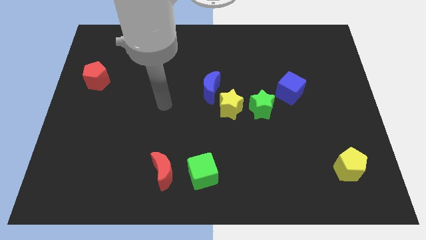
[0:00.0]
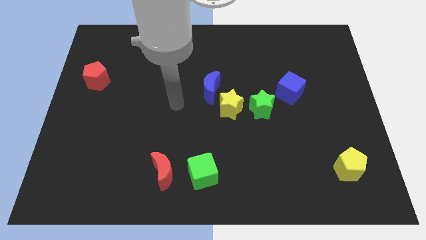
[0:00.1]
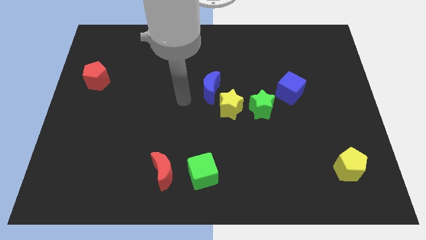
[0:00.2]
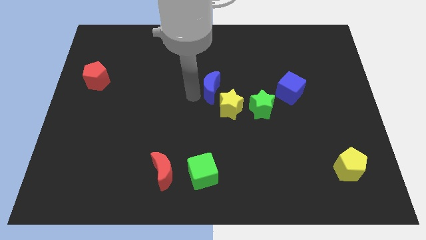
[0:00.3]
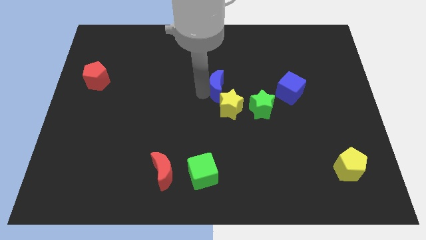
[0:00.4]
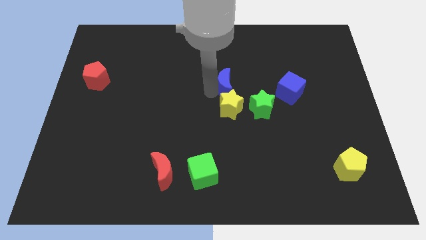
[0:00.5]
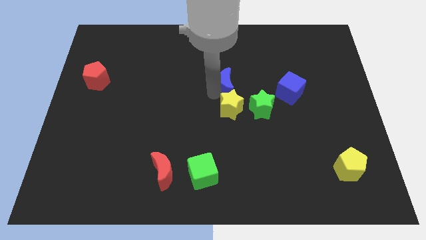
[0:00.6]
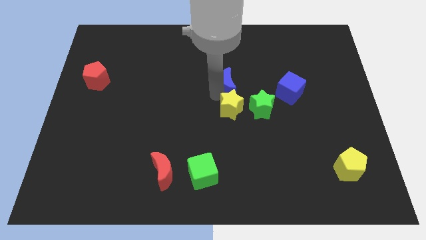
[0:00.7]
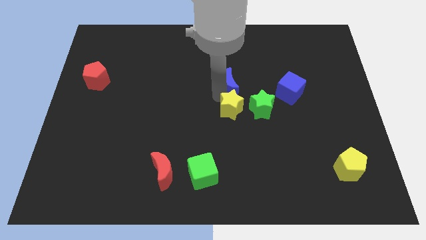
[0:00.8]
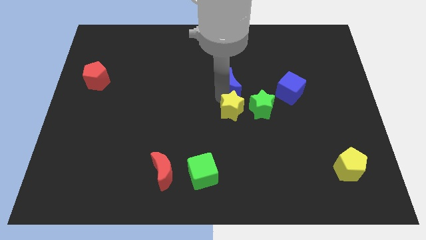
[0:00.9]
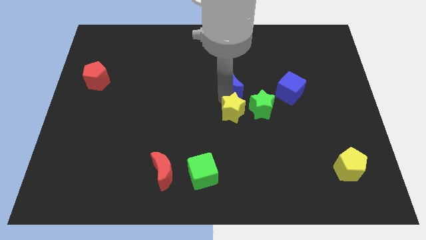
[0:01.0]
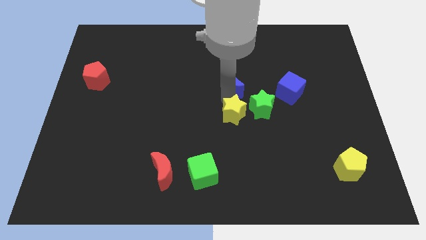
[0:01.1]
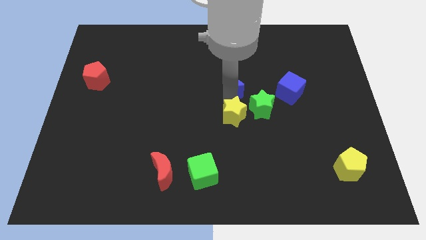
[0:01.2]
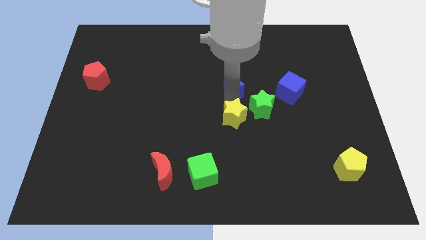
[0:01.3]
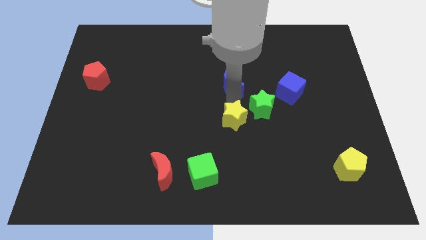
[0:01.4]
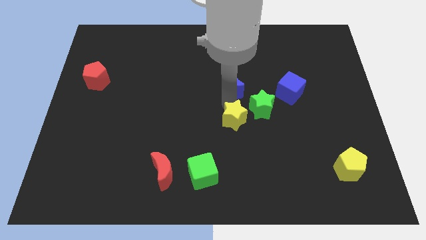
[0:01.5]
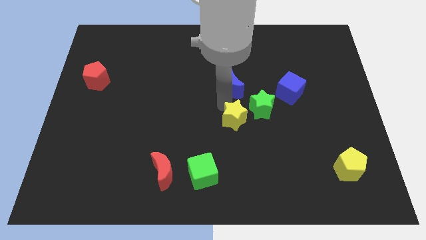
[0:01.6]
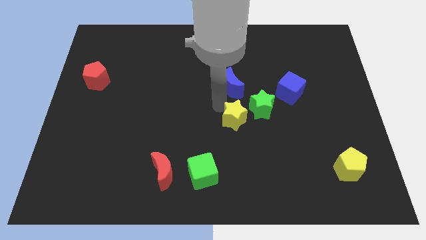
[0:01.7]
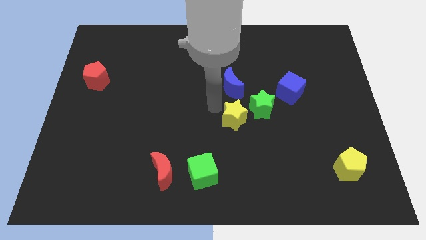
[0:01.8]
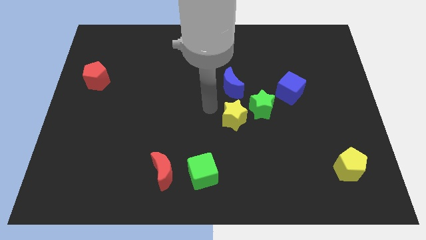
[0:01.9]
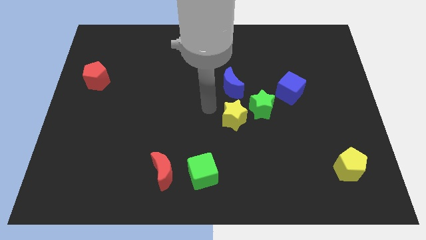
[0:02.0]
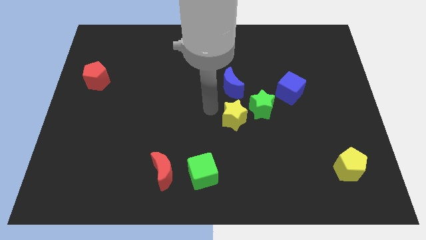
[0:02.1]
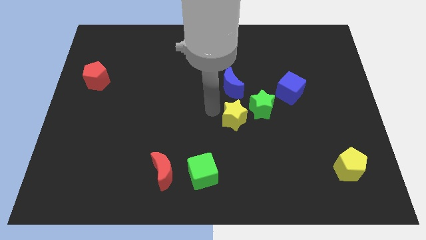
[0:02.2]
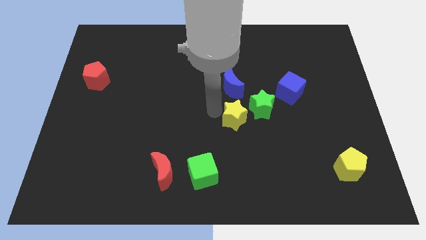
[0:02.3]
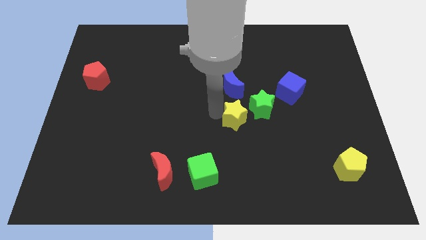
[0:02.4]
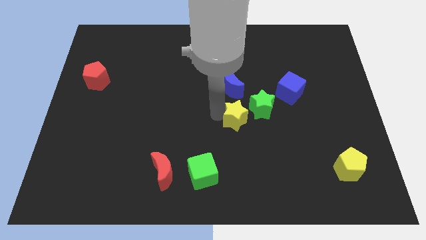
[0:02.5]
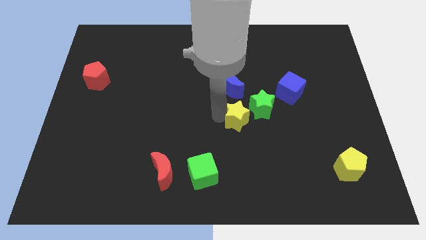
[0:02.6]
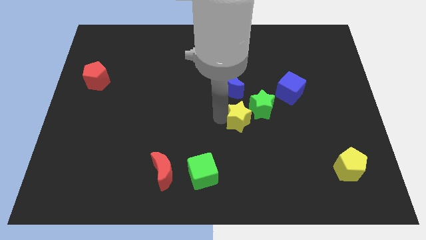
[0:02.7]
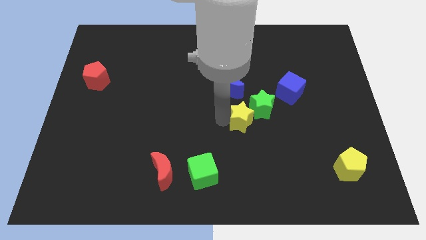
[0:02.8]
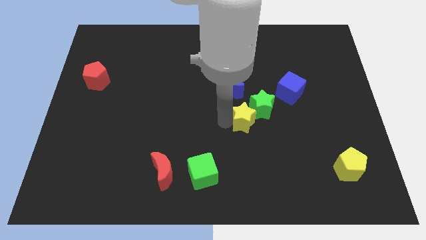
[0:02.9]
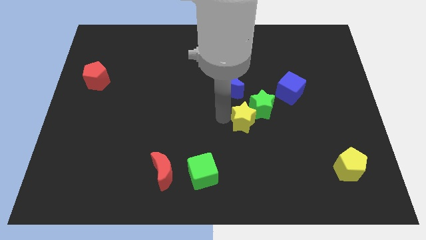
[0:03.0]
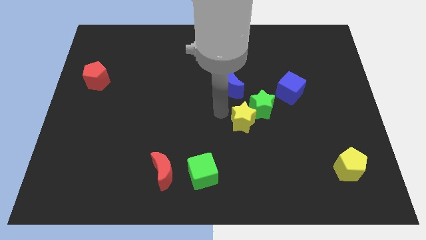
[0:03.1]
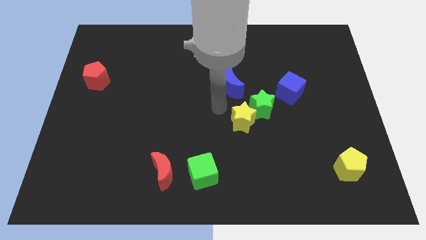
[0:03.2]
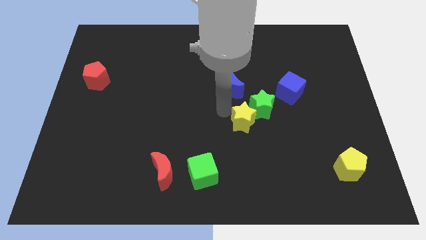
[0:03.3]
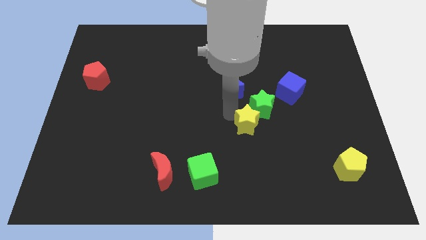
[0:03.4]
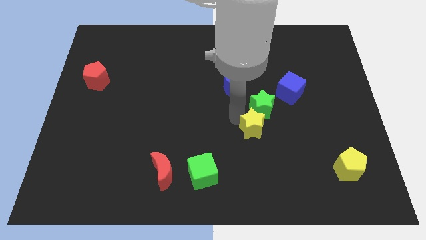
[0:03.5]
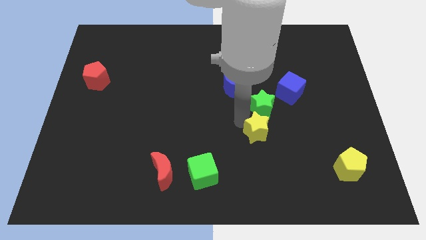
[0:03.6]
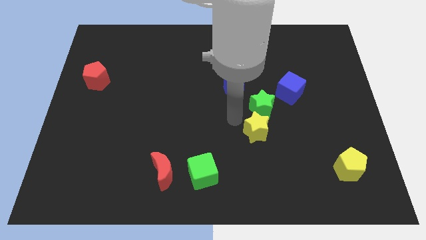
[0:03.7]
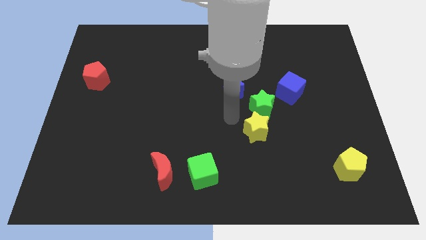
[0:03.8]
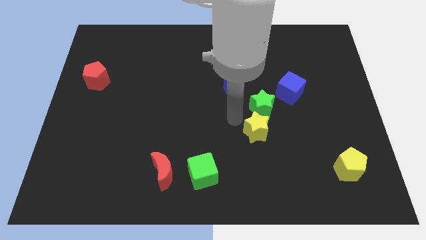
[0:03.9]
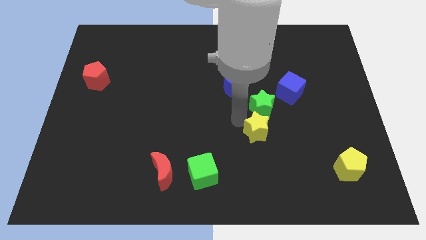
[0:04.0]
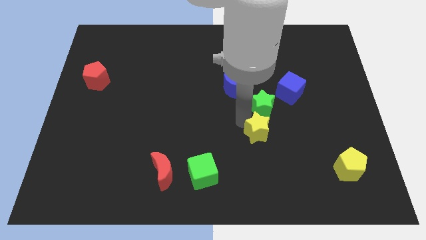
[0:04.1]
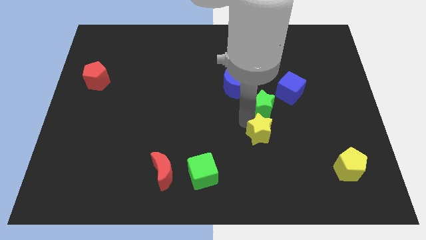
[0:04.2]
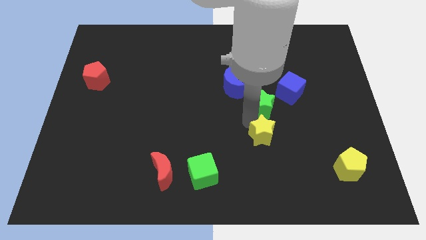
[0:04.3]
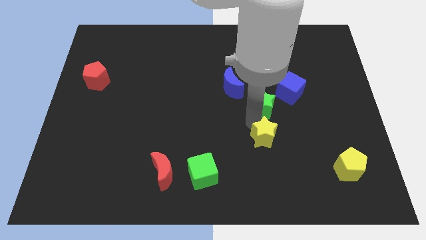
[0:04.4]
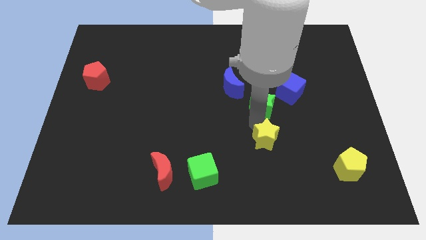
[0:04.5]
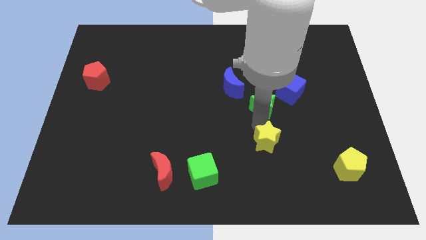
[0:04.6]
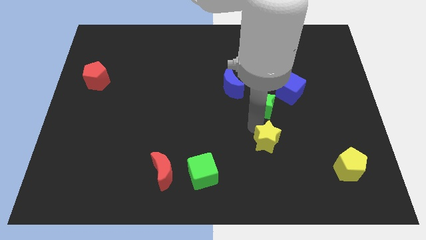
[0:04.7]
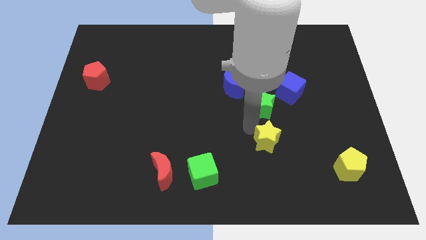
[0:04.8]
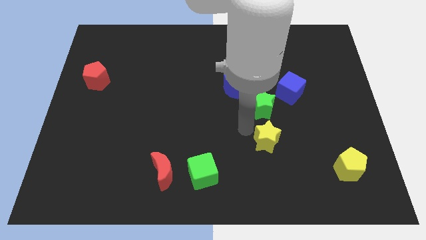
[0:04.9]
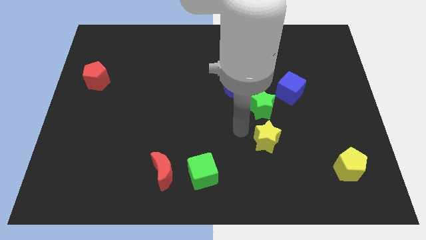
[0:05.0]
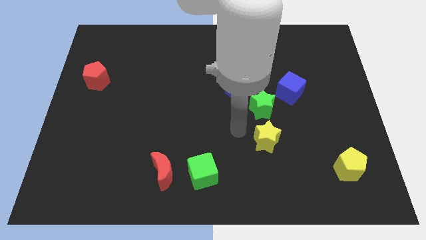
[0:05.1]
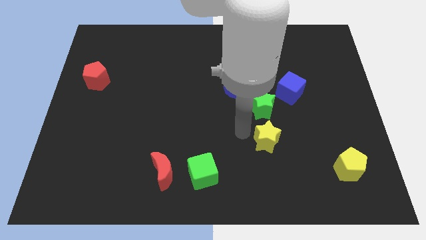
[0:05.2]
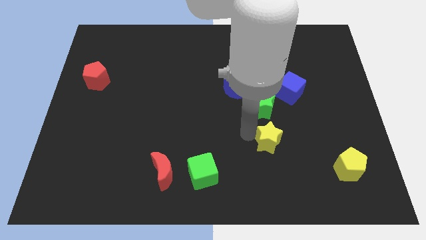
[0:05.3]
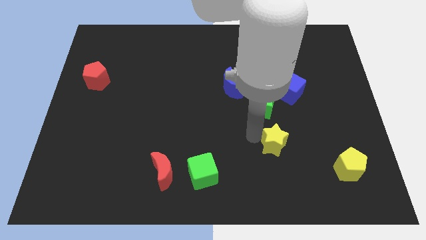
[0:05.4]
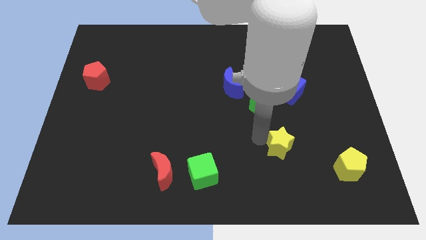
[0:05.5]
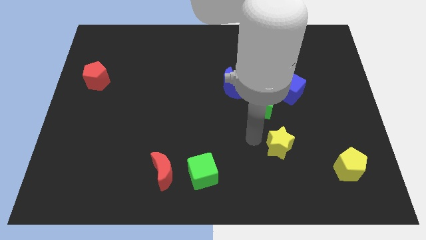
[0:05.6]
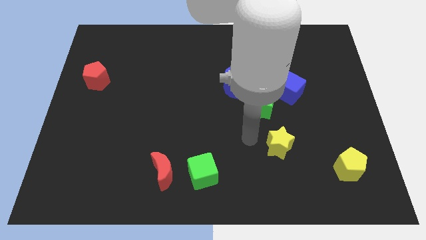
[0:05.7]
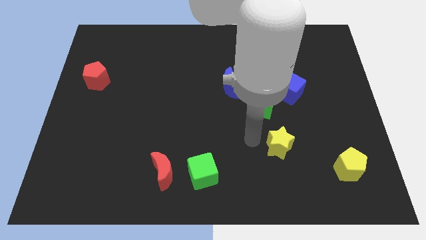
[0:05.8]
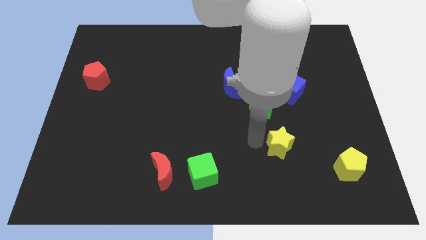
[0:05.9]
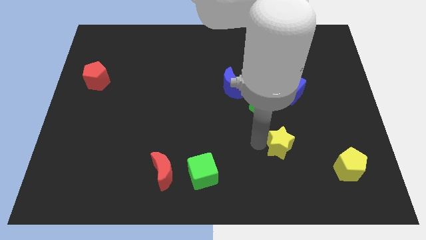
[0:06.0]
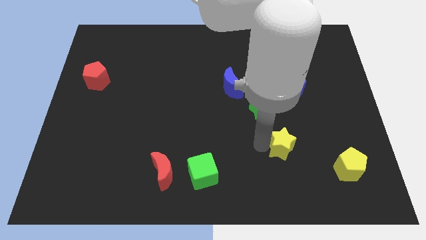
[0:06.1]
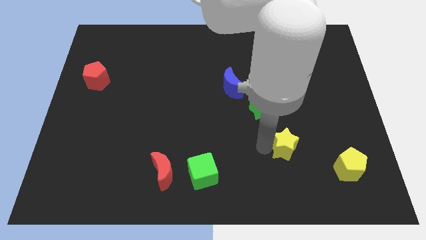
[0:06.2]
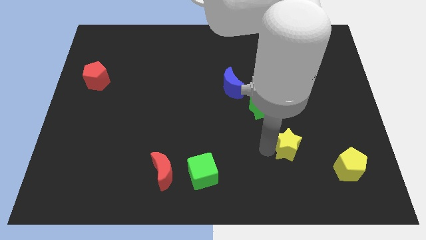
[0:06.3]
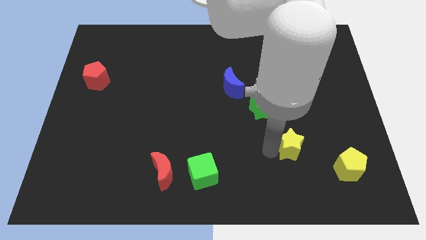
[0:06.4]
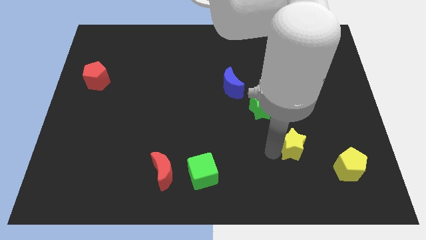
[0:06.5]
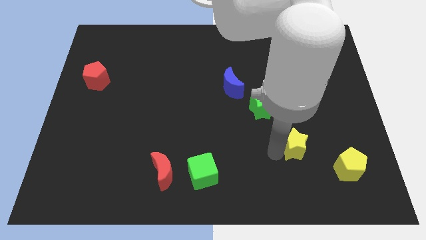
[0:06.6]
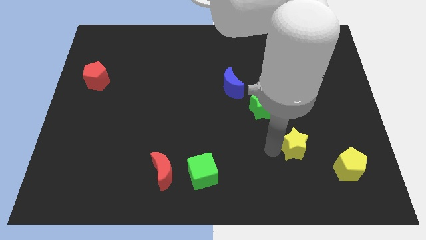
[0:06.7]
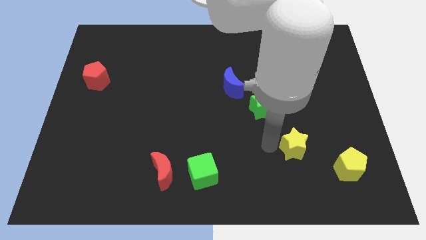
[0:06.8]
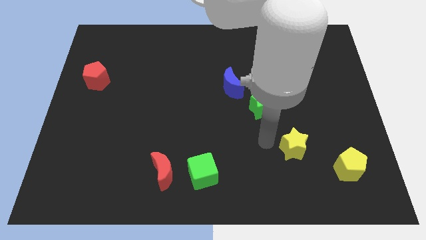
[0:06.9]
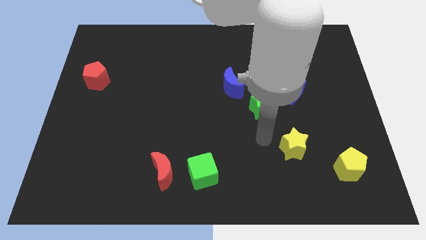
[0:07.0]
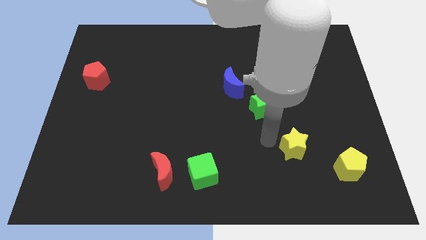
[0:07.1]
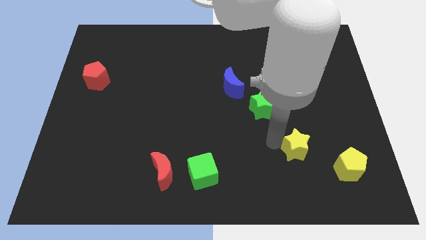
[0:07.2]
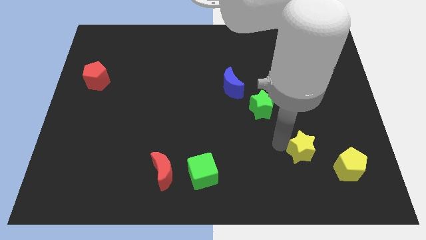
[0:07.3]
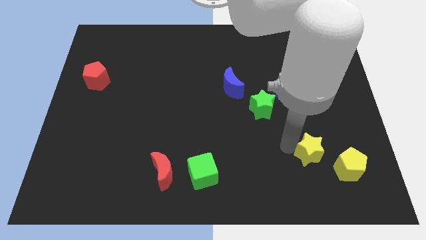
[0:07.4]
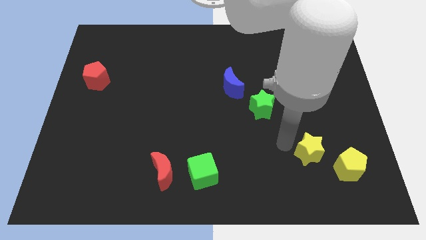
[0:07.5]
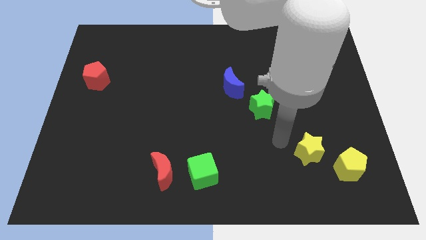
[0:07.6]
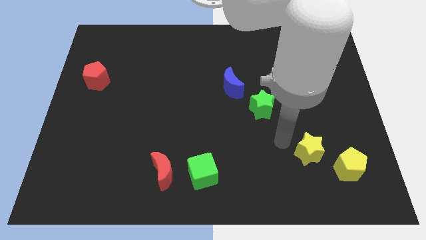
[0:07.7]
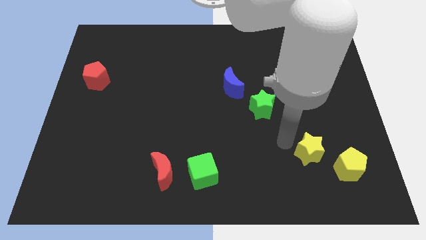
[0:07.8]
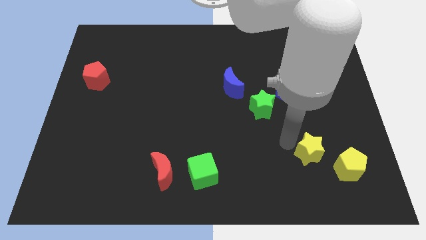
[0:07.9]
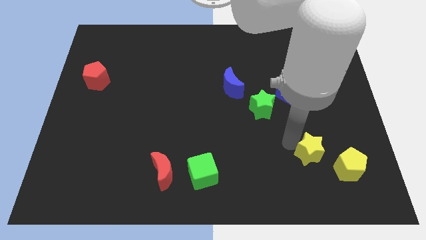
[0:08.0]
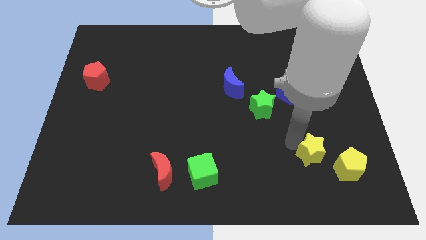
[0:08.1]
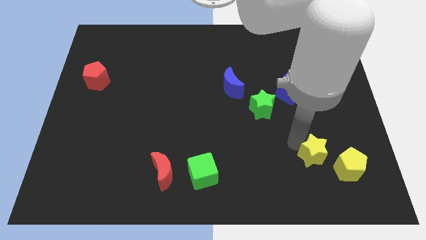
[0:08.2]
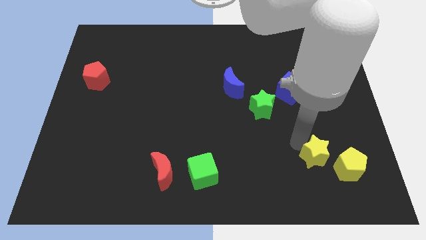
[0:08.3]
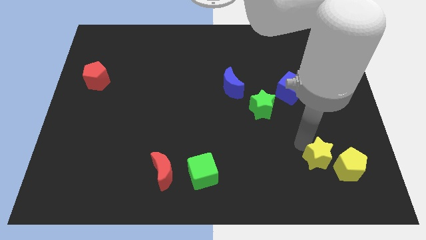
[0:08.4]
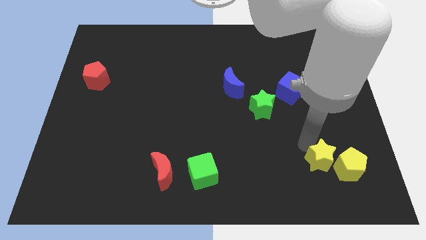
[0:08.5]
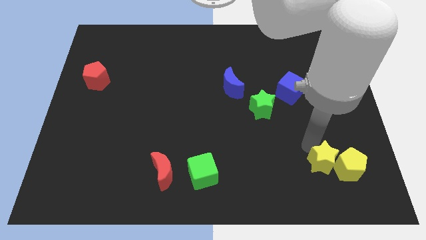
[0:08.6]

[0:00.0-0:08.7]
move the yellow star close to the yellow pentagon
